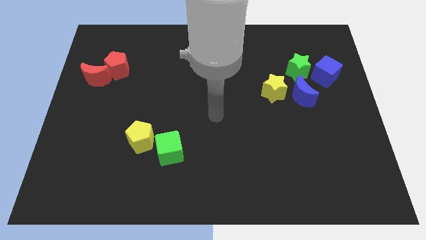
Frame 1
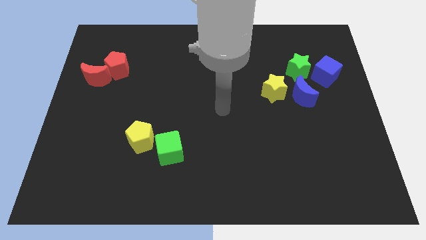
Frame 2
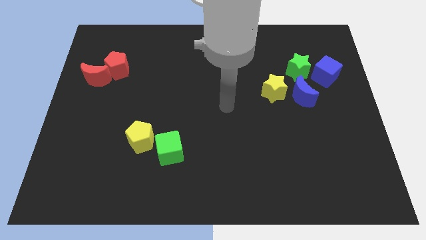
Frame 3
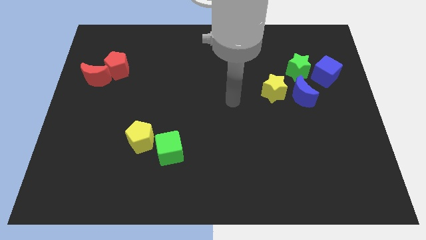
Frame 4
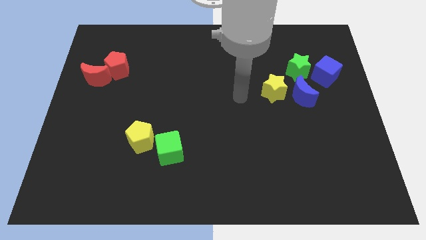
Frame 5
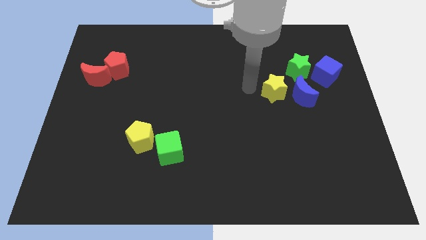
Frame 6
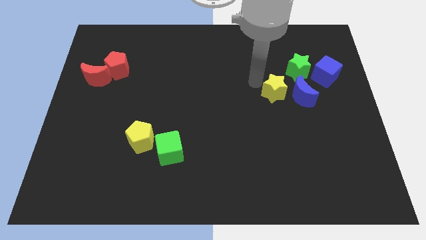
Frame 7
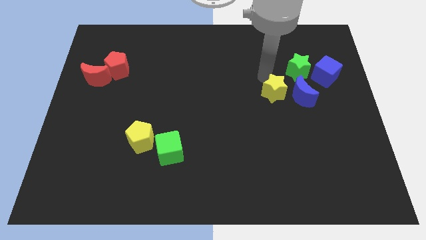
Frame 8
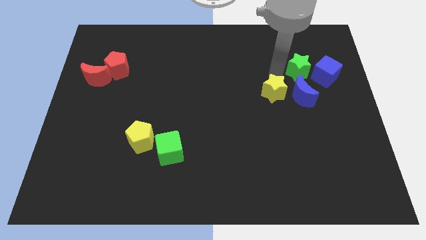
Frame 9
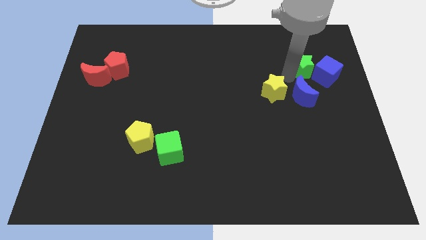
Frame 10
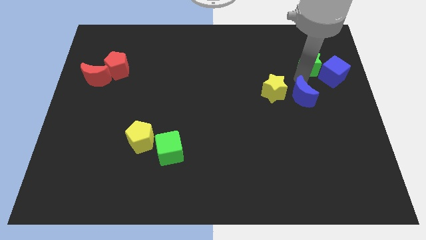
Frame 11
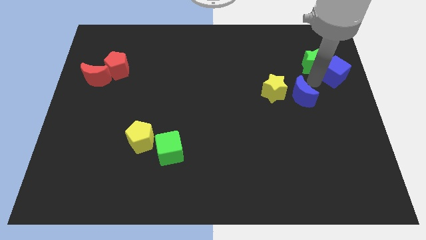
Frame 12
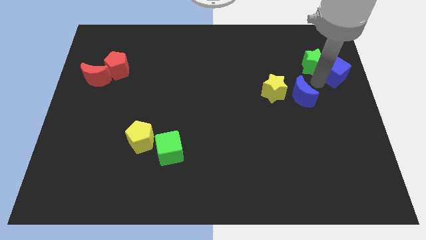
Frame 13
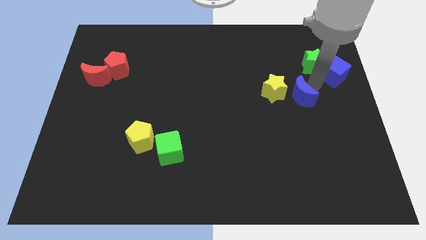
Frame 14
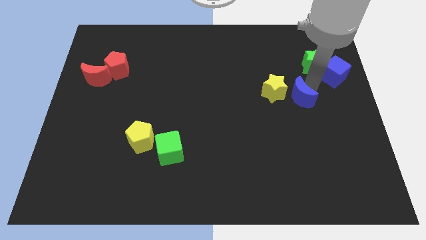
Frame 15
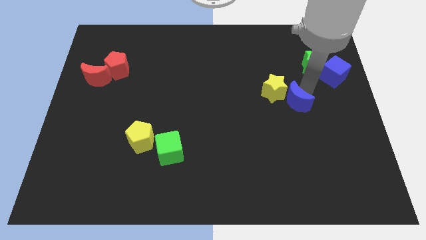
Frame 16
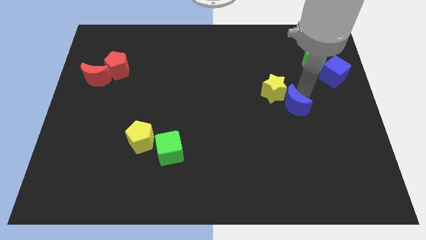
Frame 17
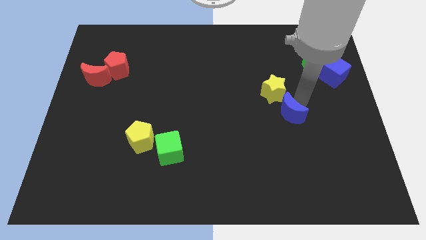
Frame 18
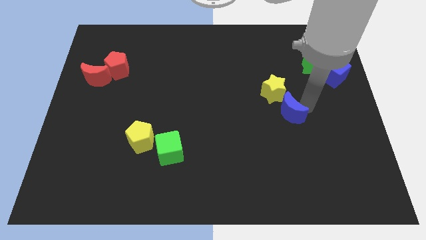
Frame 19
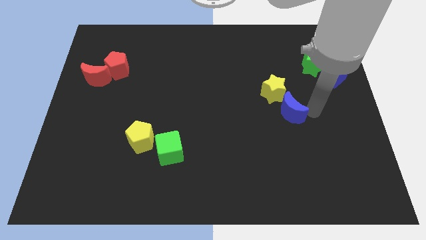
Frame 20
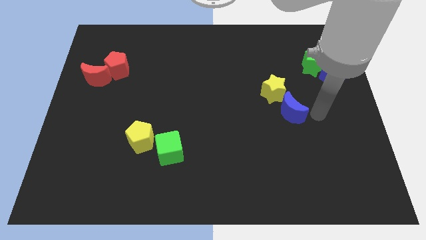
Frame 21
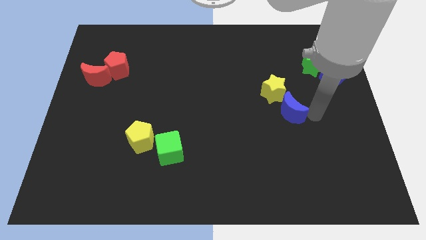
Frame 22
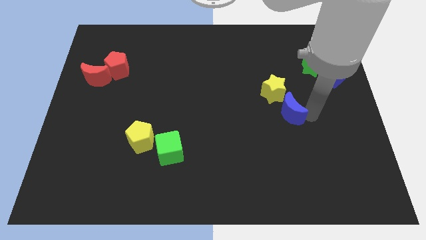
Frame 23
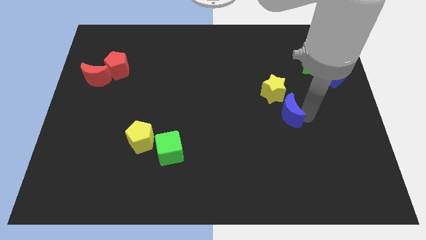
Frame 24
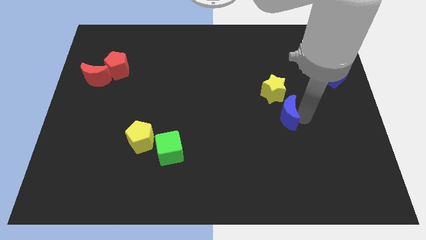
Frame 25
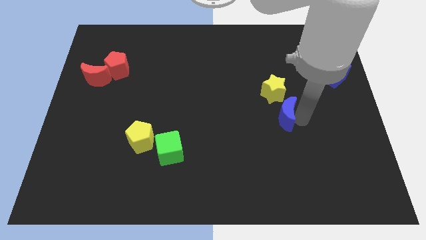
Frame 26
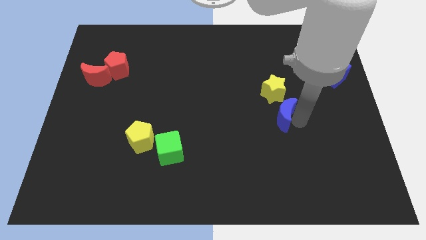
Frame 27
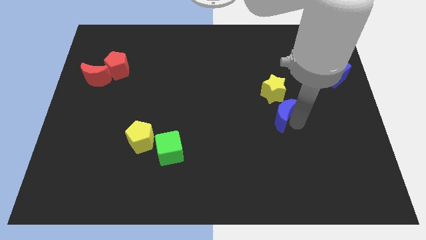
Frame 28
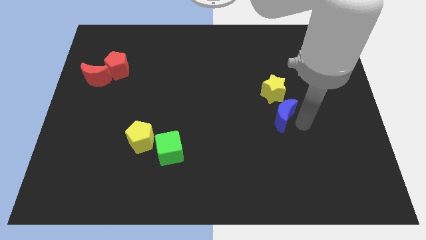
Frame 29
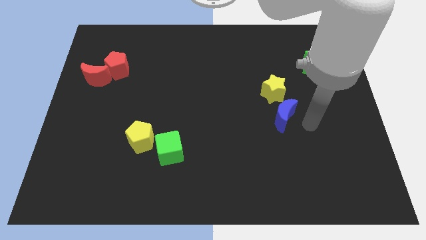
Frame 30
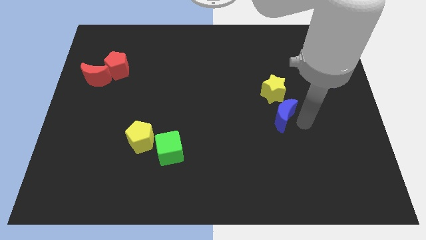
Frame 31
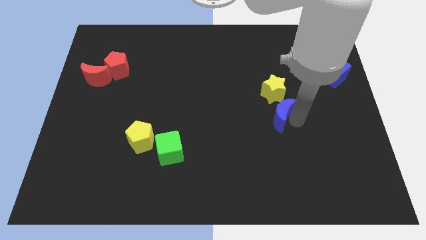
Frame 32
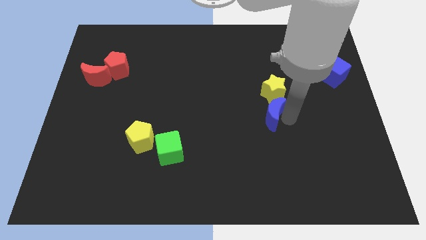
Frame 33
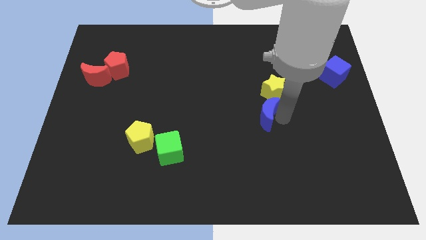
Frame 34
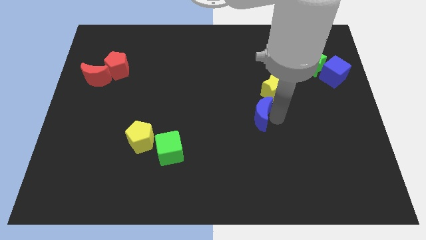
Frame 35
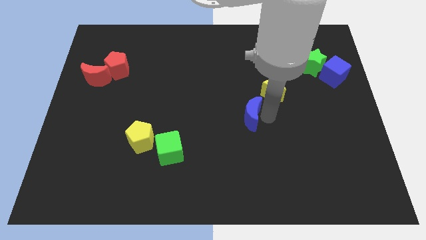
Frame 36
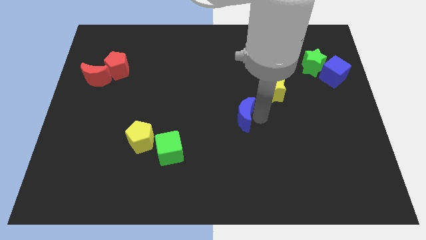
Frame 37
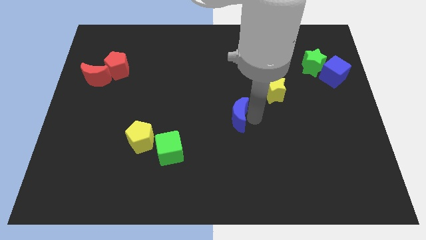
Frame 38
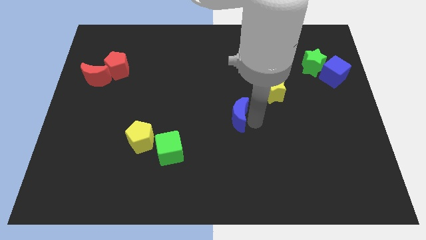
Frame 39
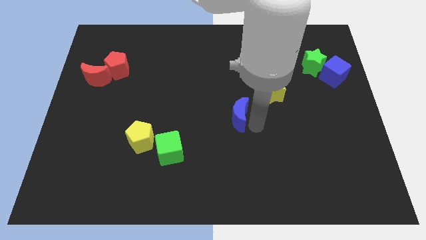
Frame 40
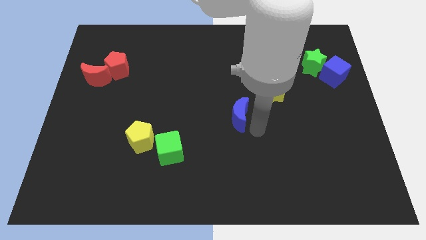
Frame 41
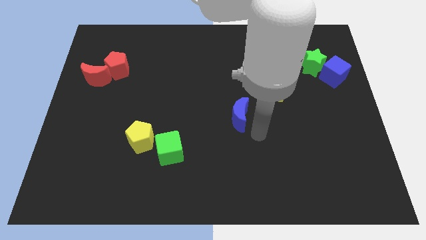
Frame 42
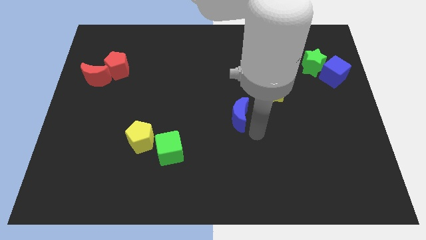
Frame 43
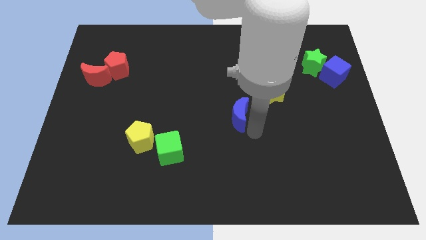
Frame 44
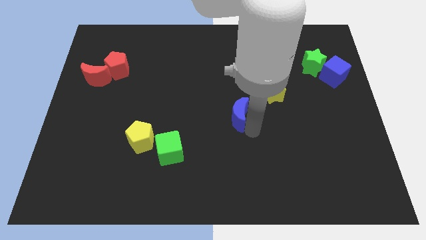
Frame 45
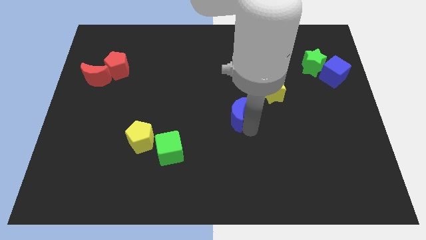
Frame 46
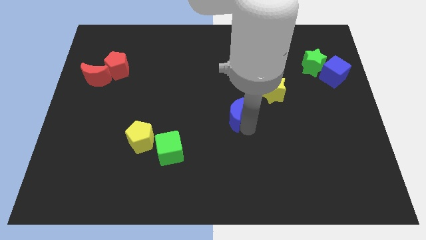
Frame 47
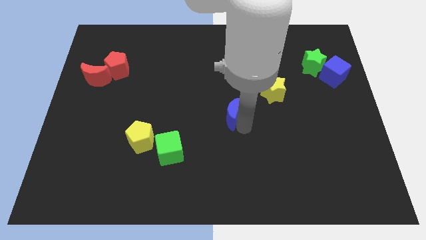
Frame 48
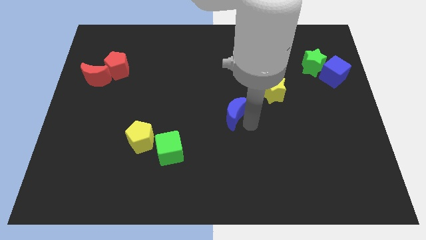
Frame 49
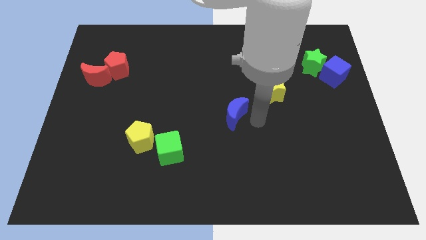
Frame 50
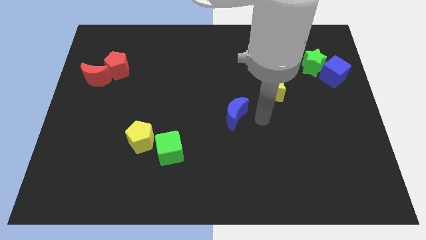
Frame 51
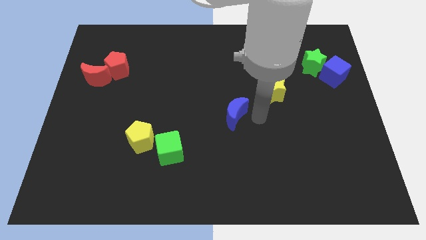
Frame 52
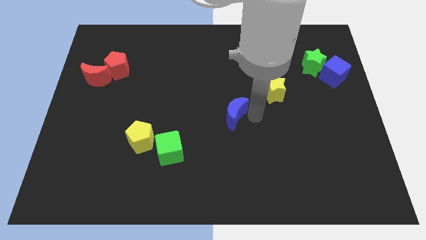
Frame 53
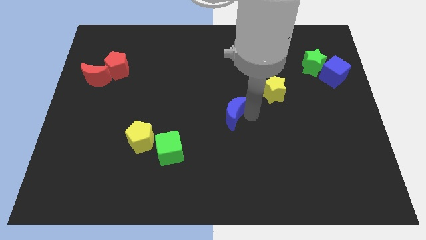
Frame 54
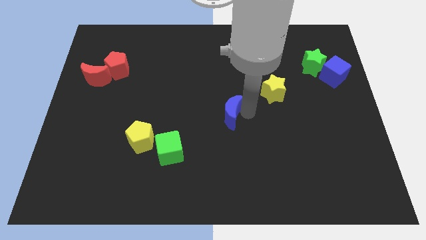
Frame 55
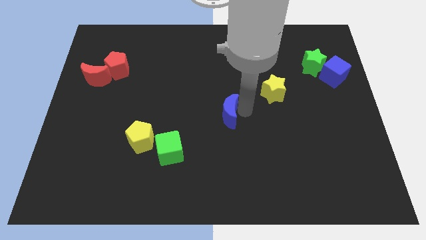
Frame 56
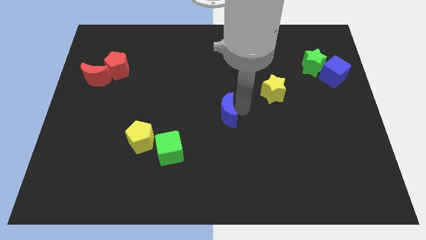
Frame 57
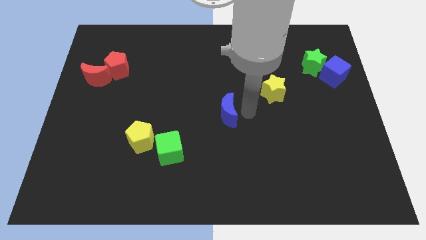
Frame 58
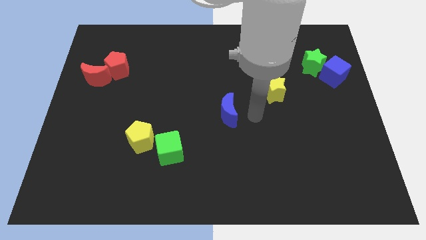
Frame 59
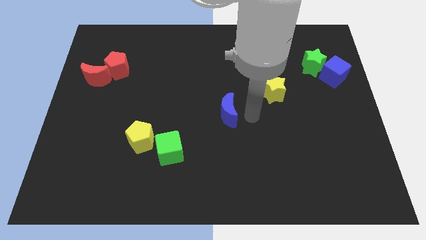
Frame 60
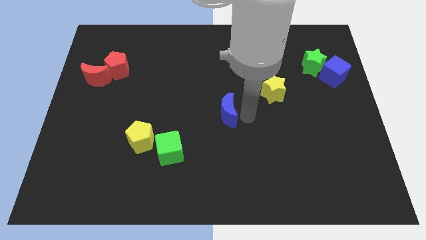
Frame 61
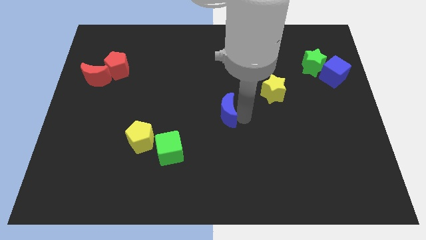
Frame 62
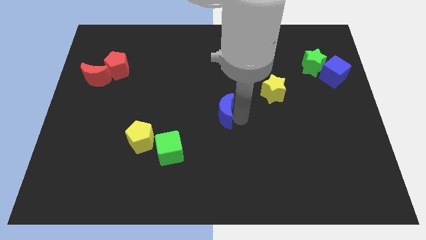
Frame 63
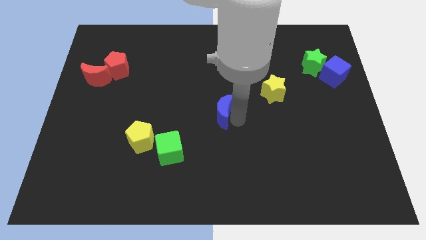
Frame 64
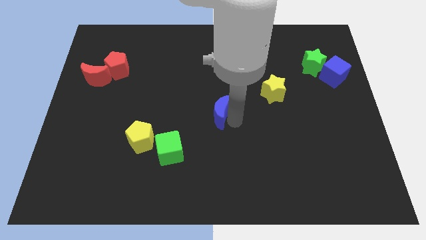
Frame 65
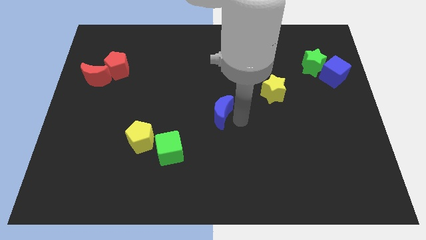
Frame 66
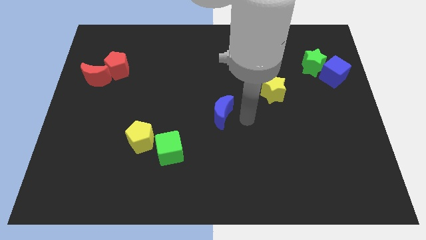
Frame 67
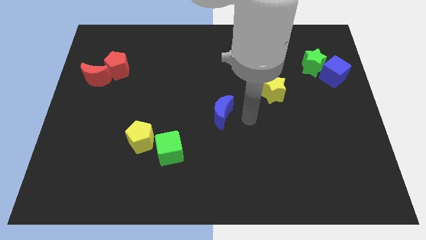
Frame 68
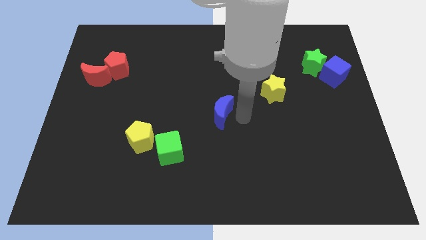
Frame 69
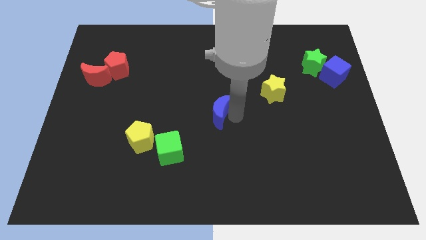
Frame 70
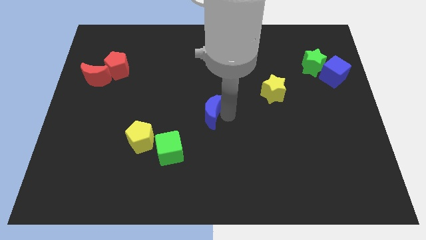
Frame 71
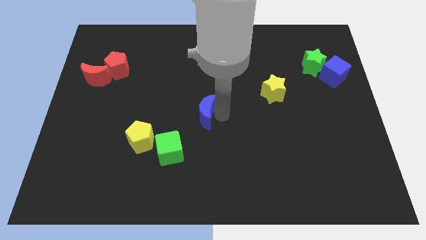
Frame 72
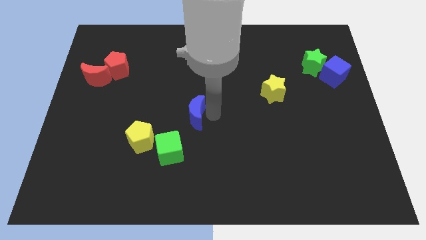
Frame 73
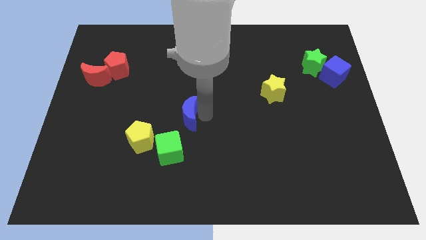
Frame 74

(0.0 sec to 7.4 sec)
put the blue moon above the green cube
